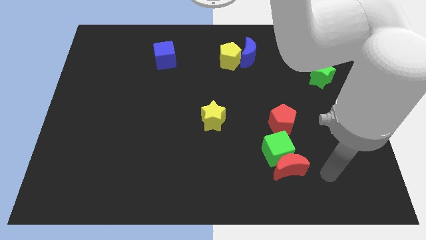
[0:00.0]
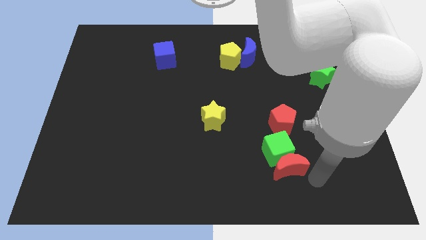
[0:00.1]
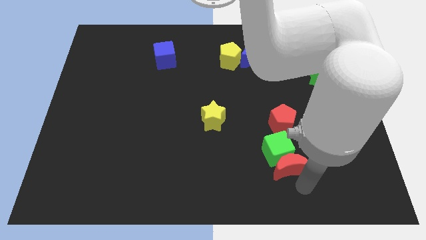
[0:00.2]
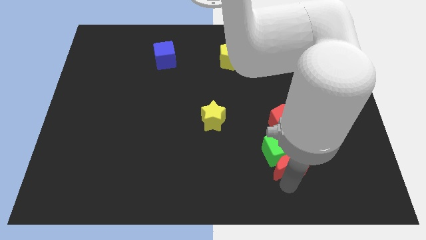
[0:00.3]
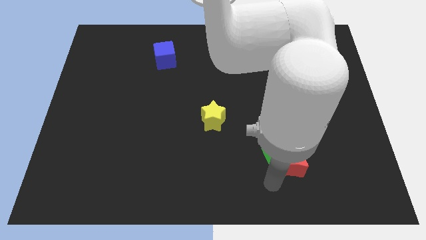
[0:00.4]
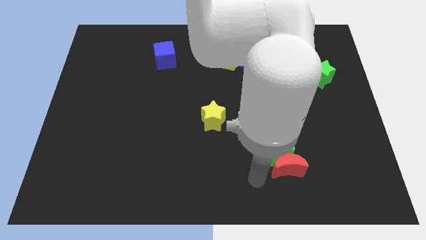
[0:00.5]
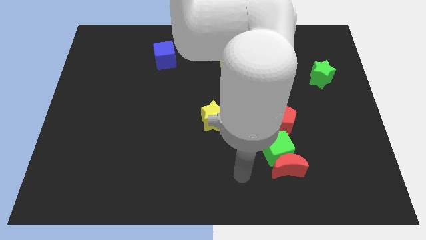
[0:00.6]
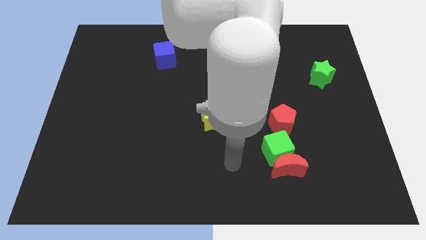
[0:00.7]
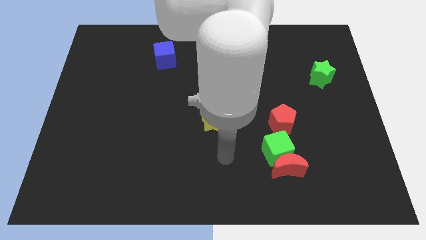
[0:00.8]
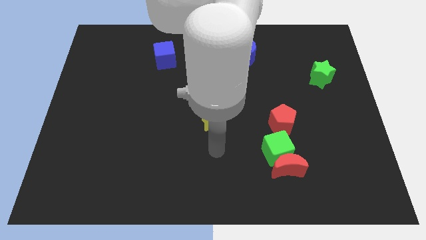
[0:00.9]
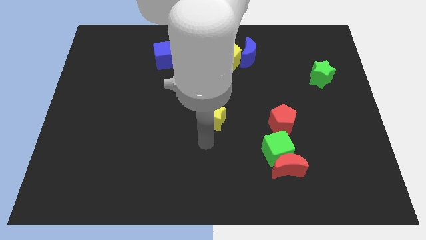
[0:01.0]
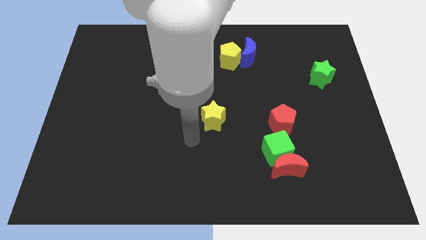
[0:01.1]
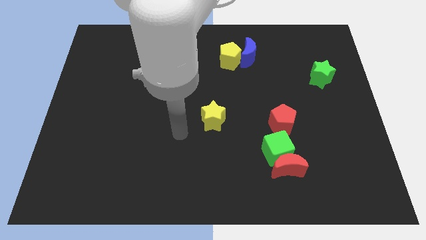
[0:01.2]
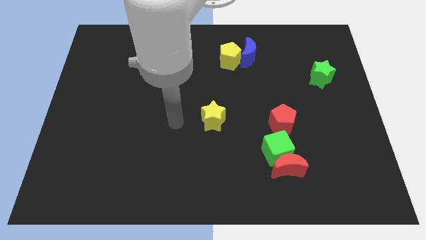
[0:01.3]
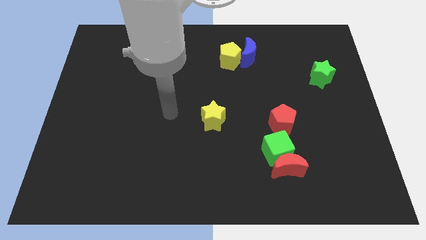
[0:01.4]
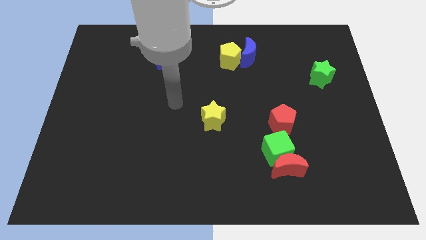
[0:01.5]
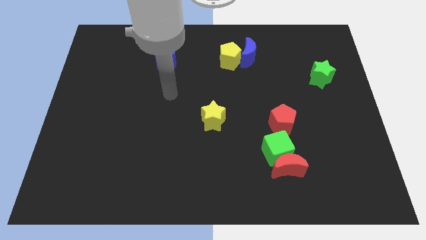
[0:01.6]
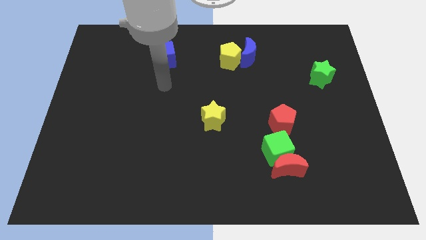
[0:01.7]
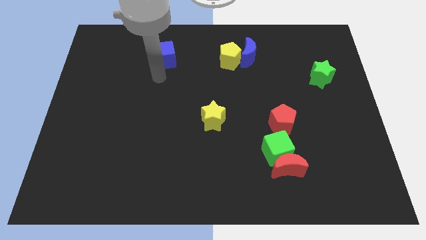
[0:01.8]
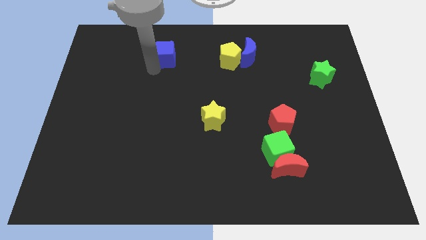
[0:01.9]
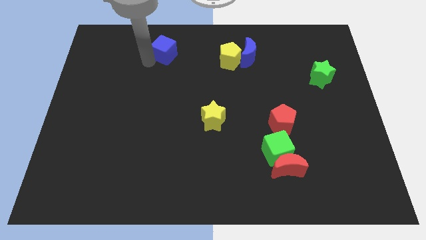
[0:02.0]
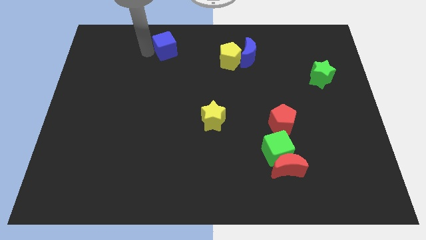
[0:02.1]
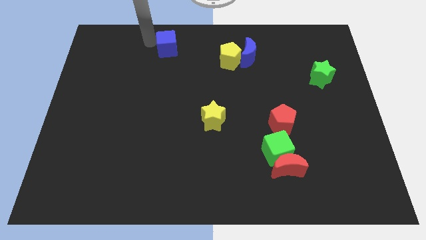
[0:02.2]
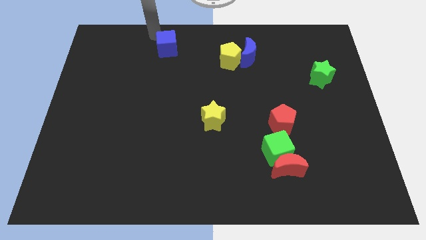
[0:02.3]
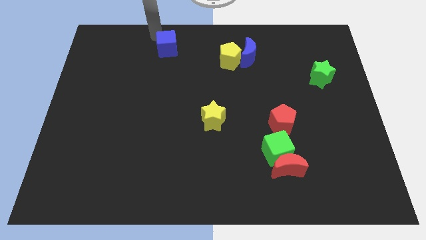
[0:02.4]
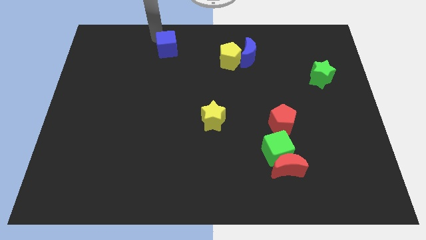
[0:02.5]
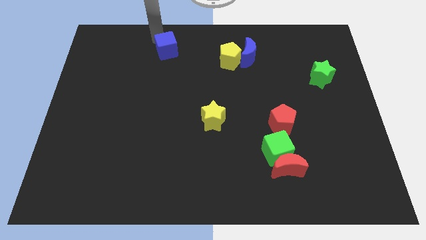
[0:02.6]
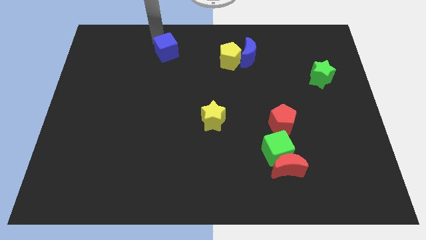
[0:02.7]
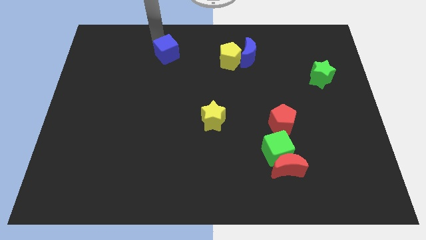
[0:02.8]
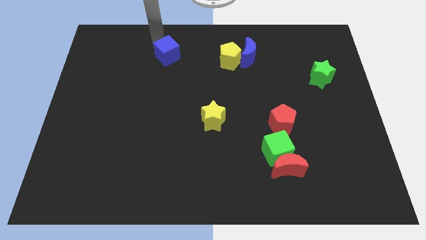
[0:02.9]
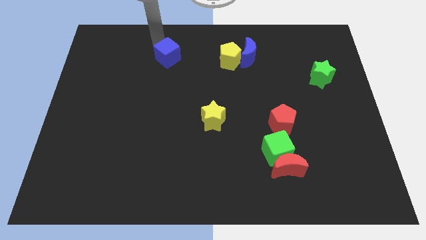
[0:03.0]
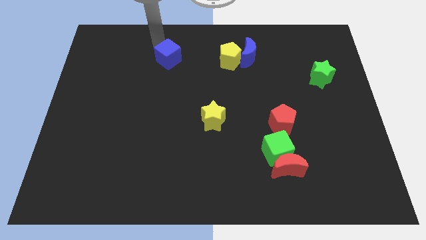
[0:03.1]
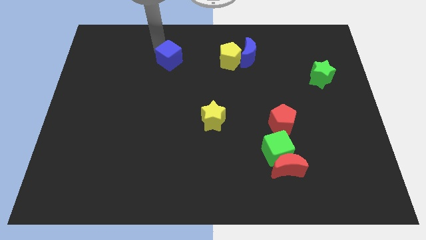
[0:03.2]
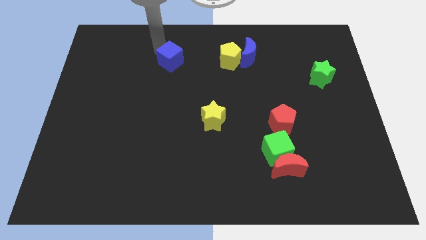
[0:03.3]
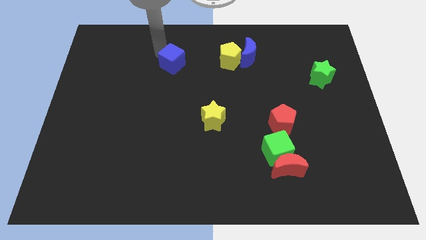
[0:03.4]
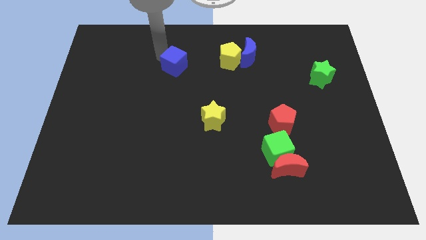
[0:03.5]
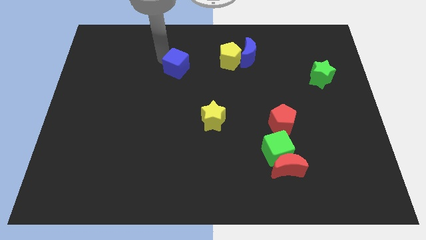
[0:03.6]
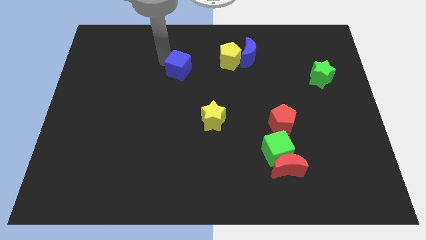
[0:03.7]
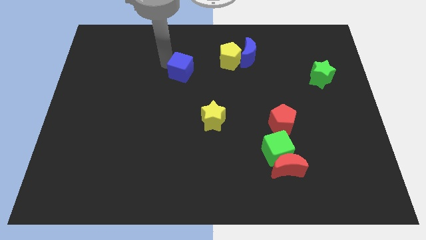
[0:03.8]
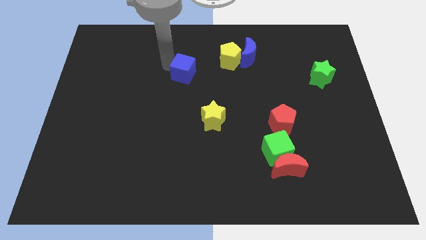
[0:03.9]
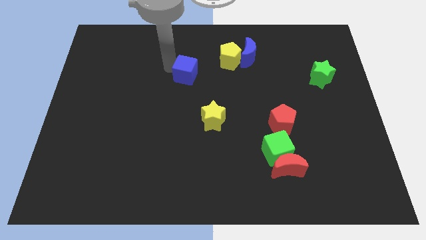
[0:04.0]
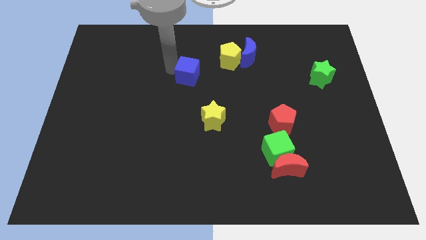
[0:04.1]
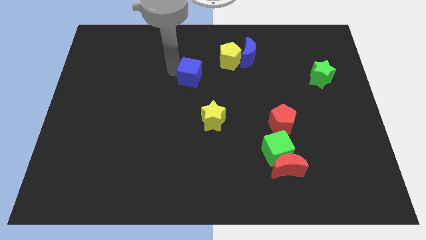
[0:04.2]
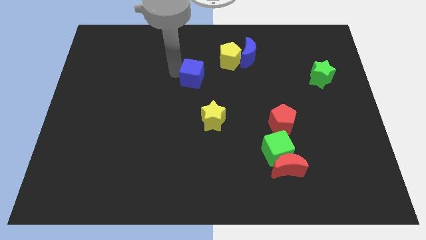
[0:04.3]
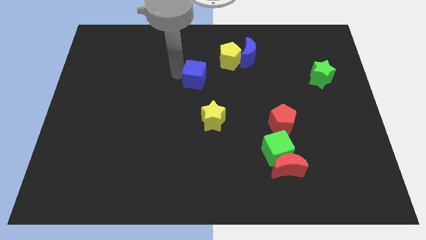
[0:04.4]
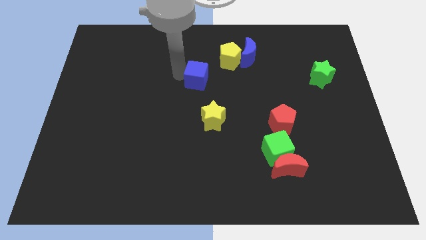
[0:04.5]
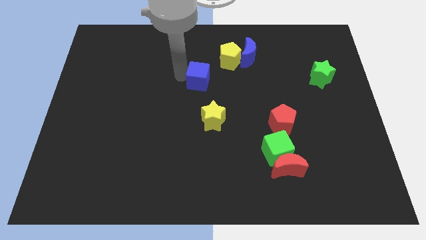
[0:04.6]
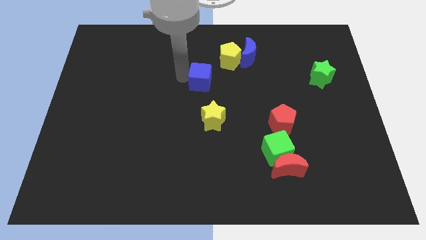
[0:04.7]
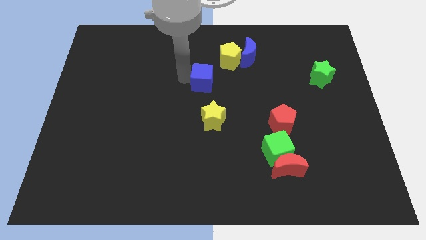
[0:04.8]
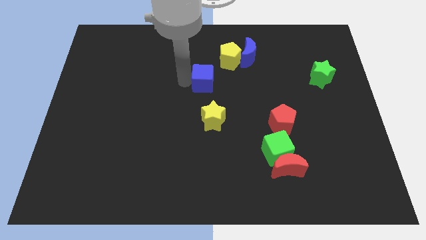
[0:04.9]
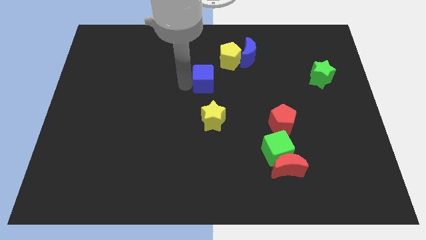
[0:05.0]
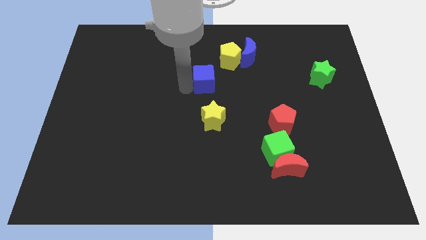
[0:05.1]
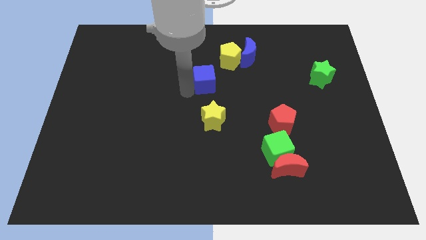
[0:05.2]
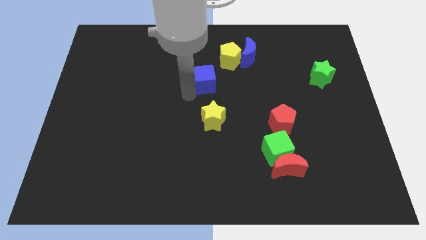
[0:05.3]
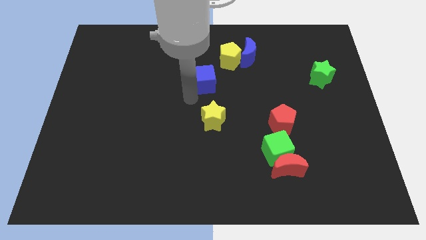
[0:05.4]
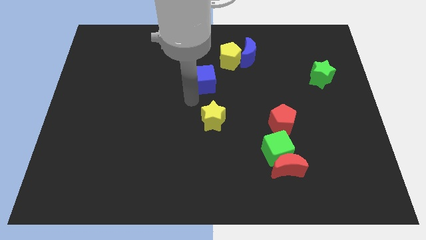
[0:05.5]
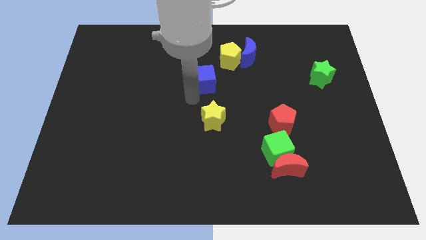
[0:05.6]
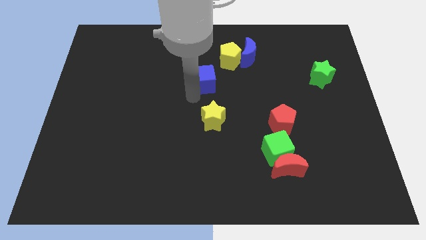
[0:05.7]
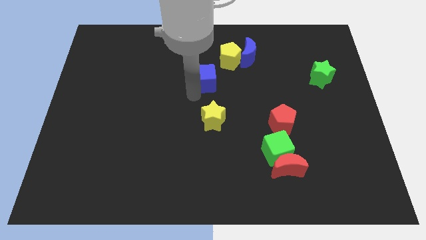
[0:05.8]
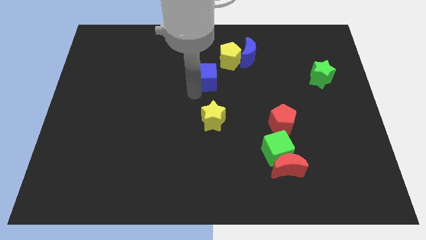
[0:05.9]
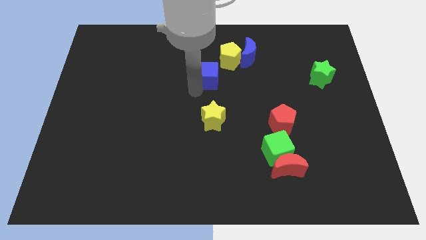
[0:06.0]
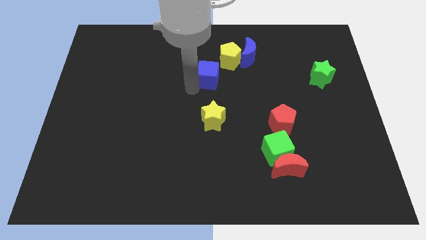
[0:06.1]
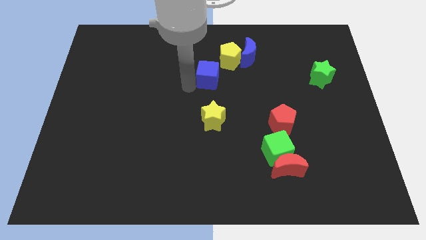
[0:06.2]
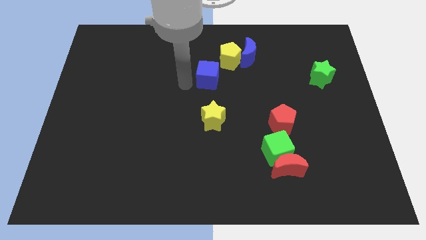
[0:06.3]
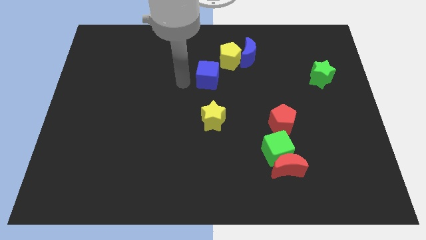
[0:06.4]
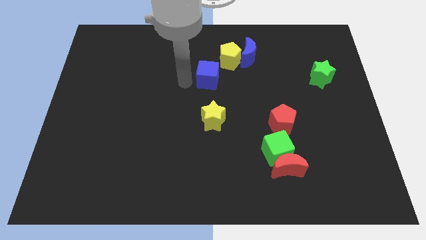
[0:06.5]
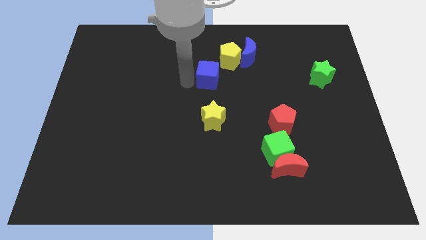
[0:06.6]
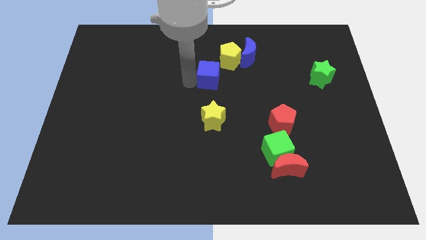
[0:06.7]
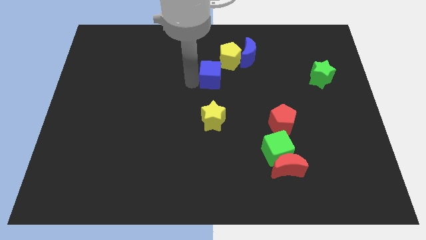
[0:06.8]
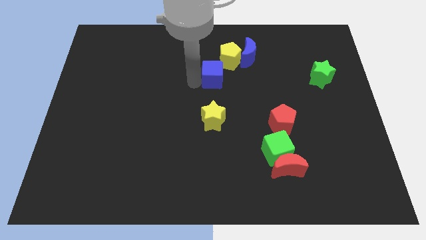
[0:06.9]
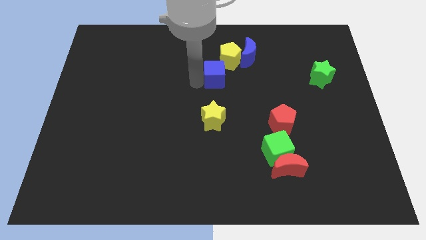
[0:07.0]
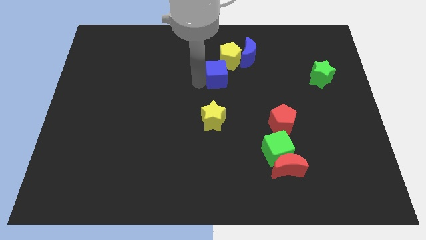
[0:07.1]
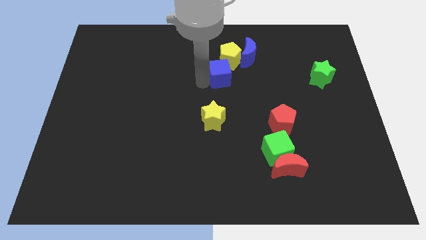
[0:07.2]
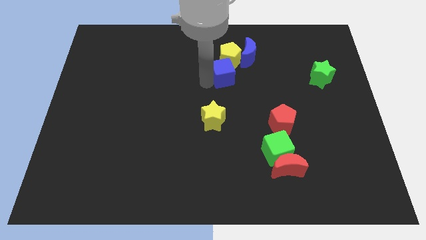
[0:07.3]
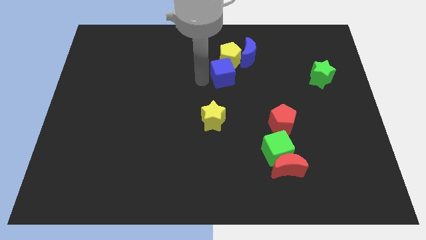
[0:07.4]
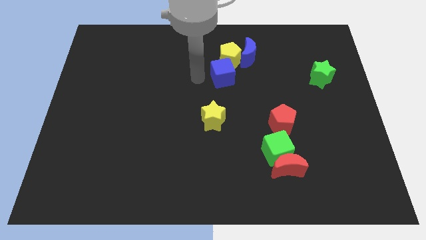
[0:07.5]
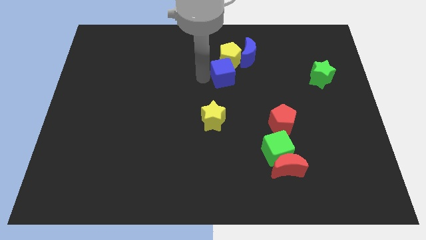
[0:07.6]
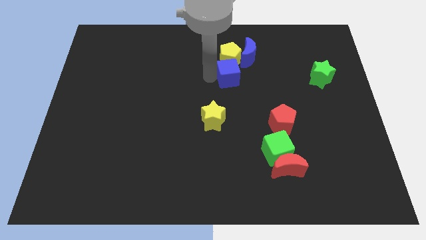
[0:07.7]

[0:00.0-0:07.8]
push the blue cube diagonally down and to the right of the yellow pentagon
